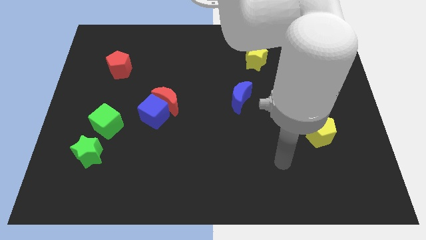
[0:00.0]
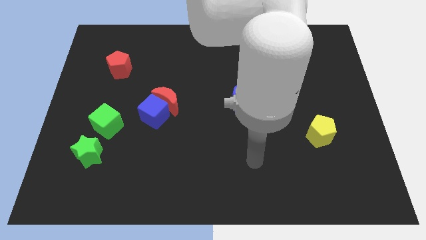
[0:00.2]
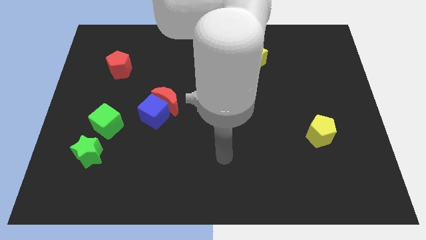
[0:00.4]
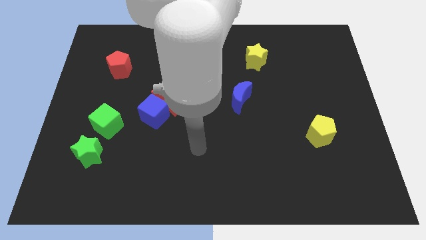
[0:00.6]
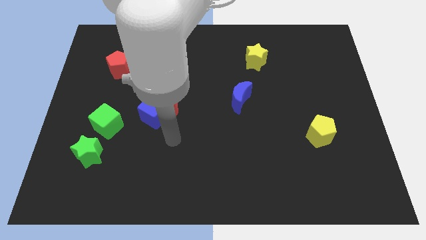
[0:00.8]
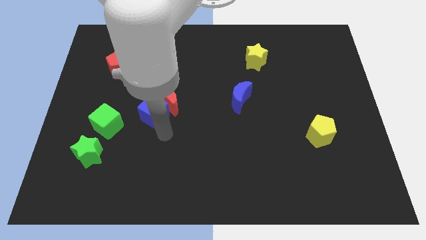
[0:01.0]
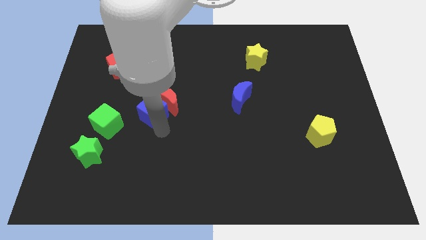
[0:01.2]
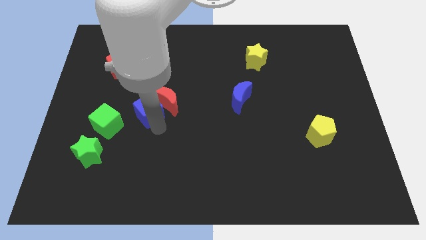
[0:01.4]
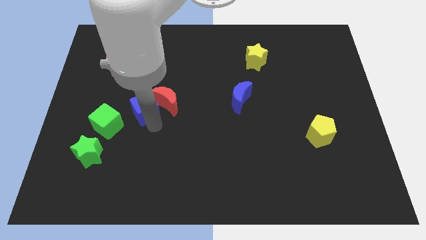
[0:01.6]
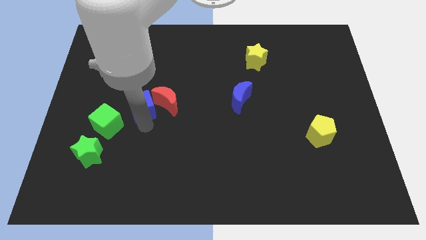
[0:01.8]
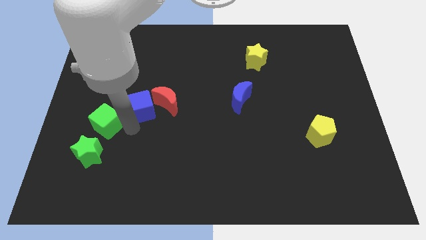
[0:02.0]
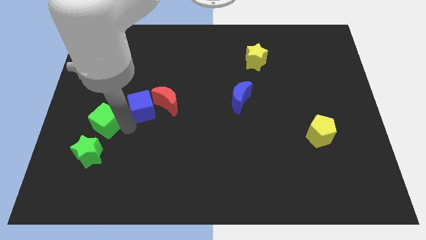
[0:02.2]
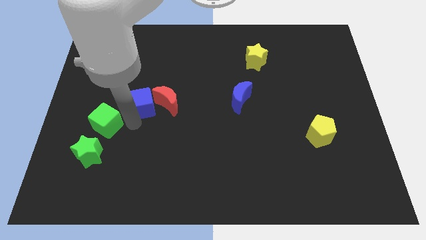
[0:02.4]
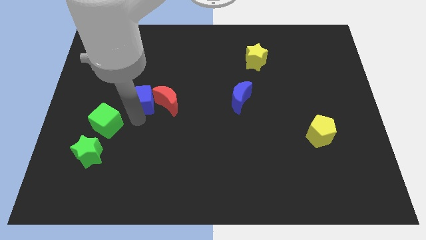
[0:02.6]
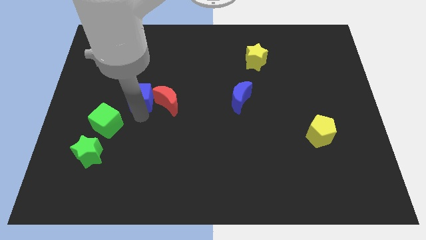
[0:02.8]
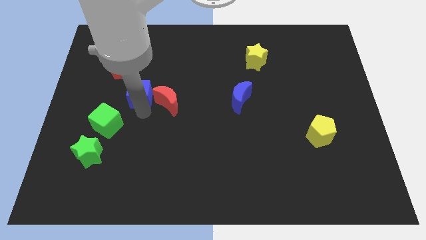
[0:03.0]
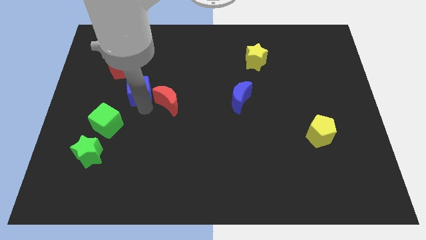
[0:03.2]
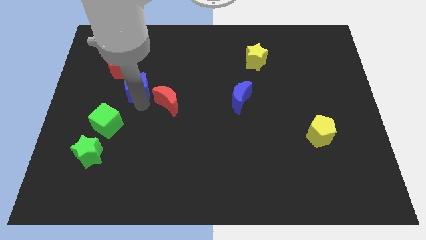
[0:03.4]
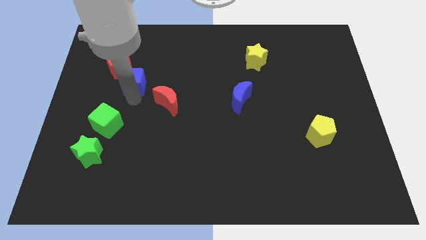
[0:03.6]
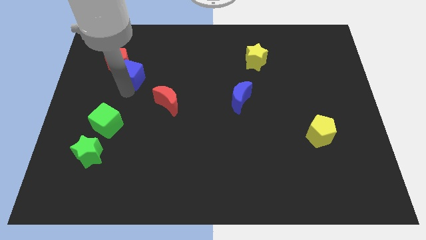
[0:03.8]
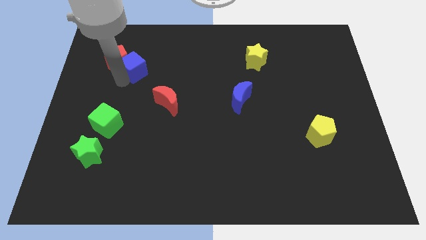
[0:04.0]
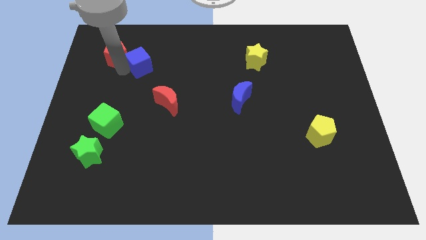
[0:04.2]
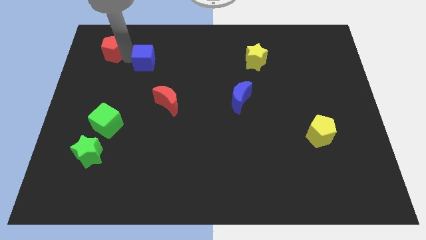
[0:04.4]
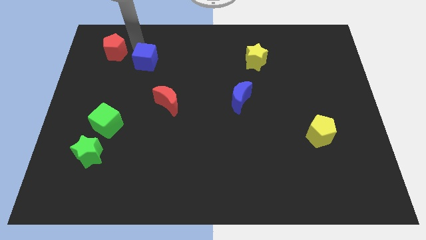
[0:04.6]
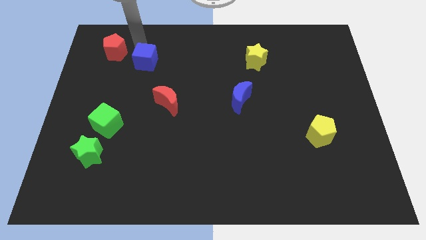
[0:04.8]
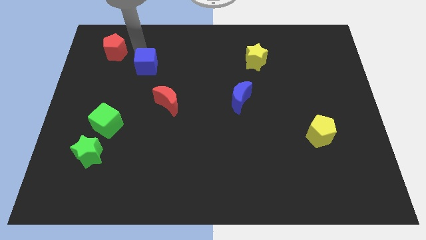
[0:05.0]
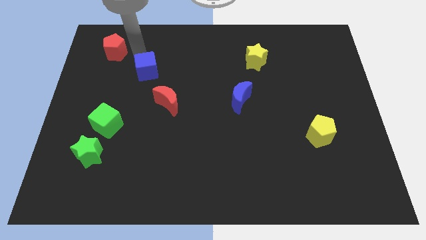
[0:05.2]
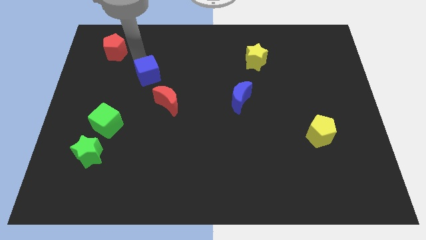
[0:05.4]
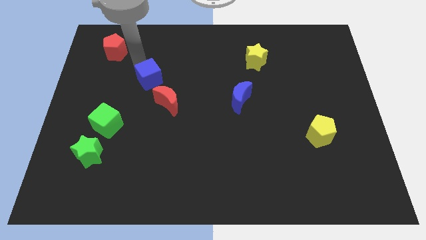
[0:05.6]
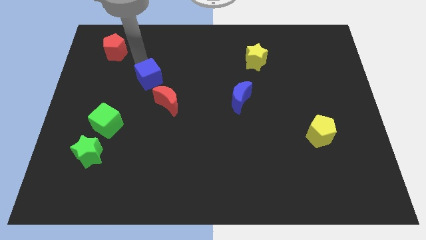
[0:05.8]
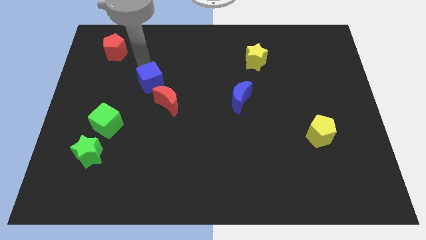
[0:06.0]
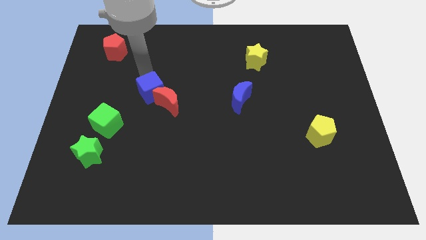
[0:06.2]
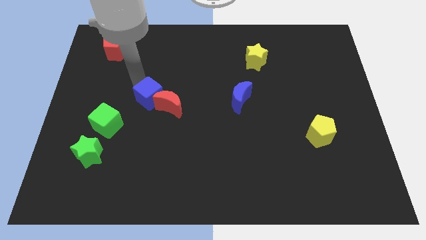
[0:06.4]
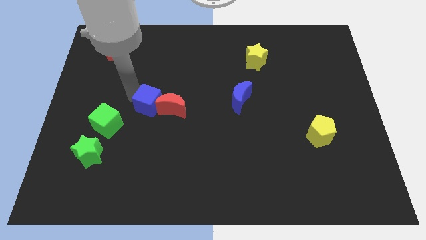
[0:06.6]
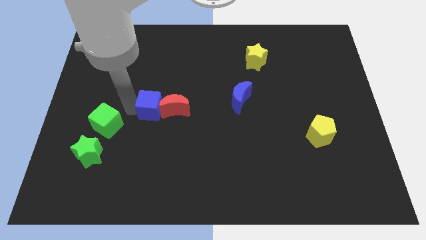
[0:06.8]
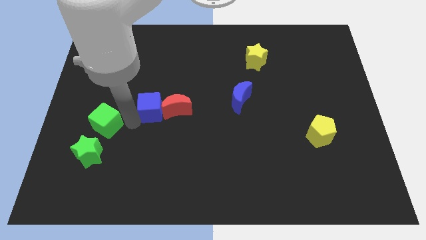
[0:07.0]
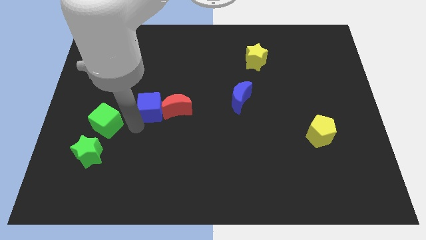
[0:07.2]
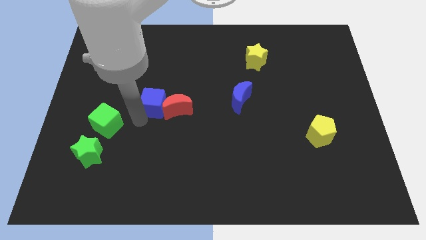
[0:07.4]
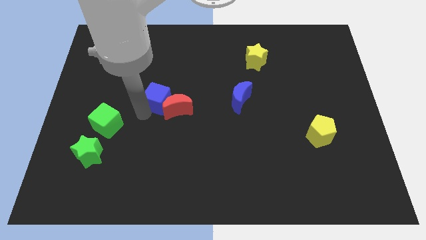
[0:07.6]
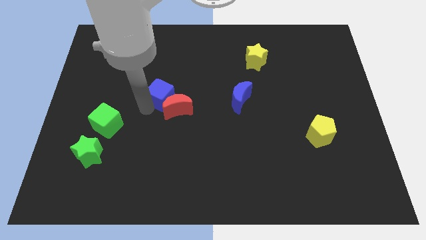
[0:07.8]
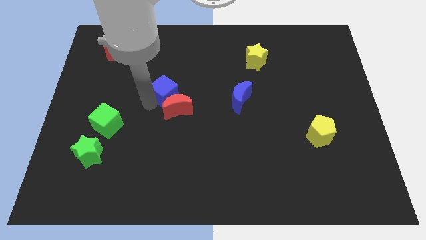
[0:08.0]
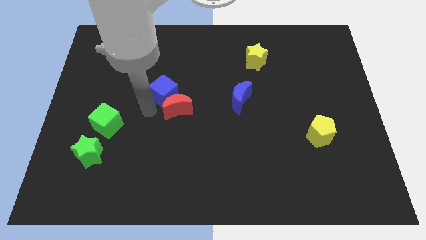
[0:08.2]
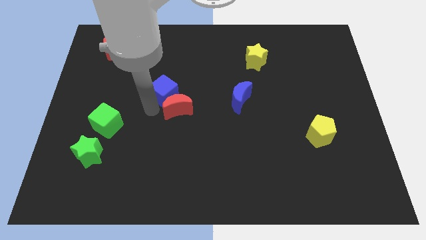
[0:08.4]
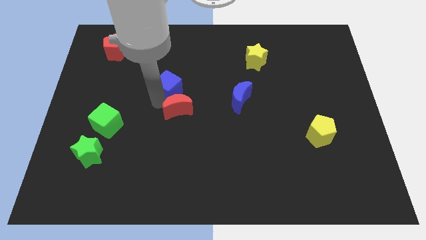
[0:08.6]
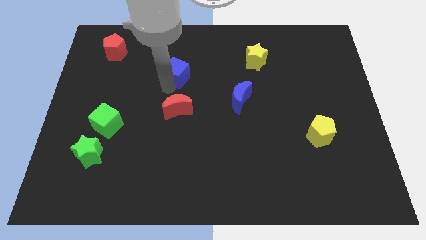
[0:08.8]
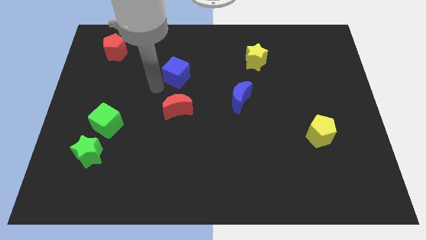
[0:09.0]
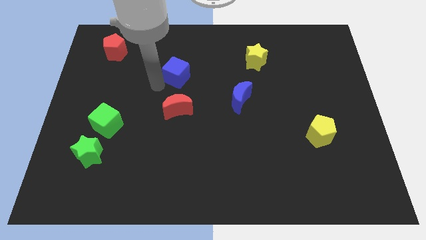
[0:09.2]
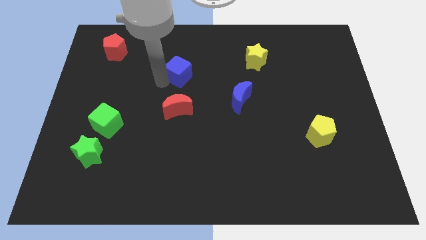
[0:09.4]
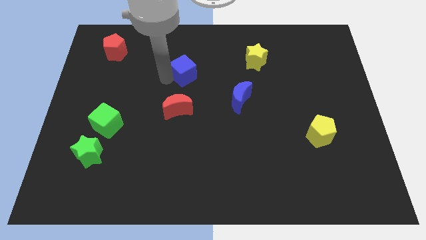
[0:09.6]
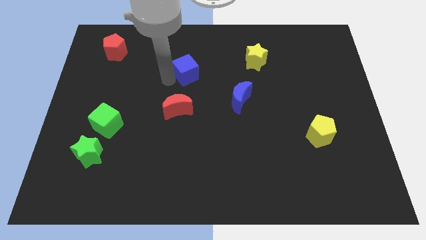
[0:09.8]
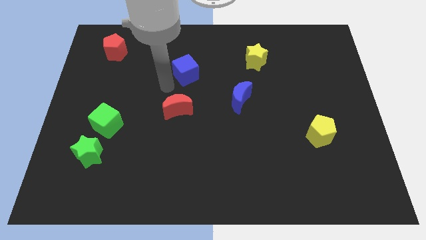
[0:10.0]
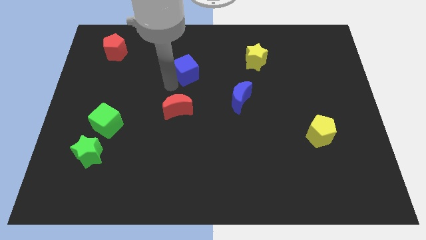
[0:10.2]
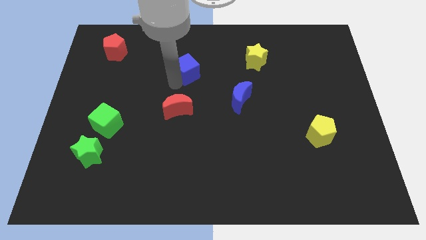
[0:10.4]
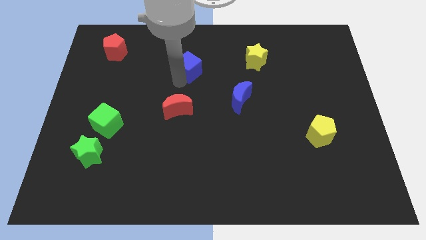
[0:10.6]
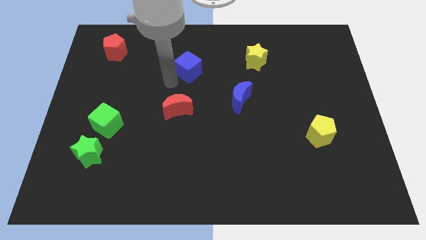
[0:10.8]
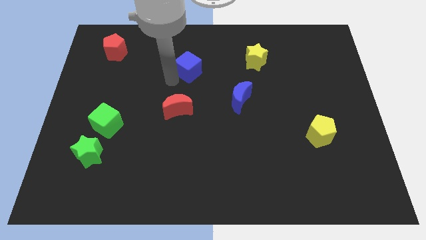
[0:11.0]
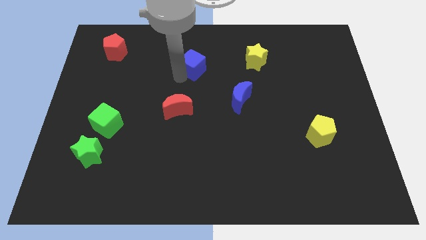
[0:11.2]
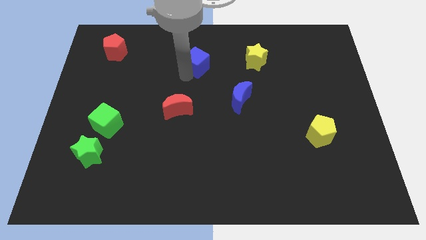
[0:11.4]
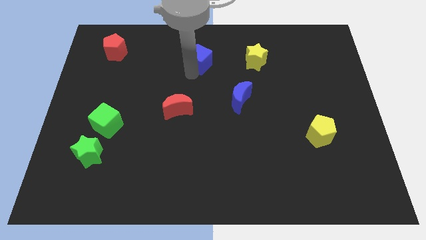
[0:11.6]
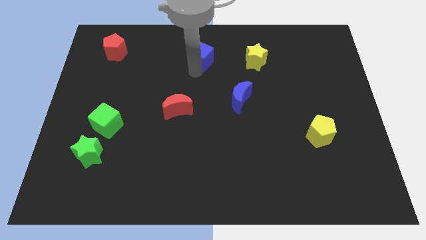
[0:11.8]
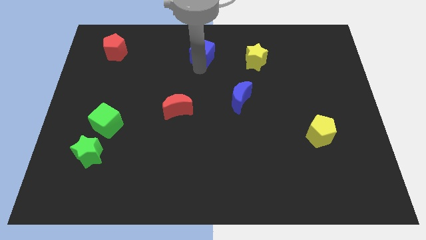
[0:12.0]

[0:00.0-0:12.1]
move the blue cube to the towards your base
